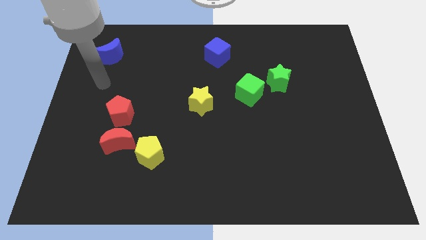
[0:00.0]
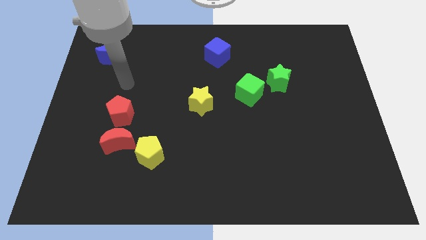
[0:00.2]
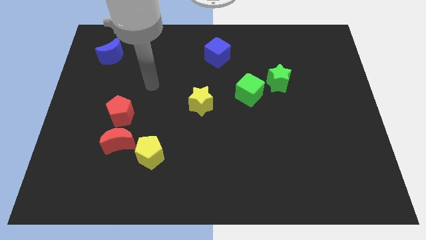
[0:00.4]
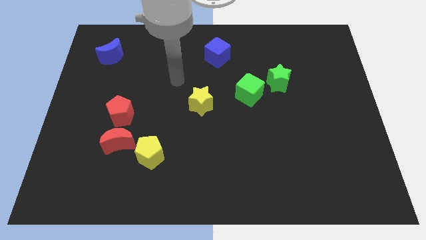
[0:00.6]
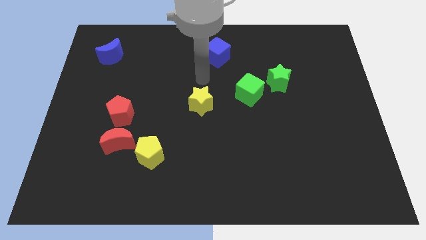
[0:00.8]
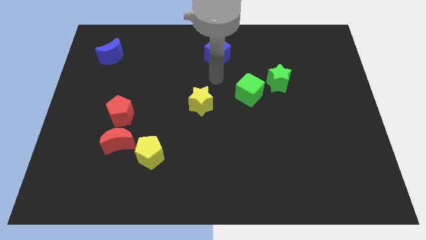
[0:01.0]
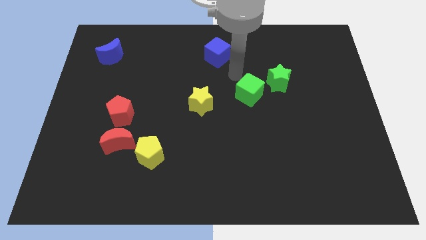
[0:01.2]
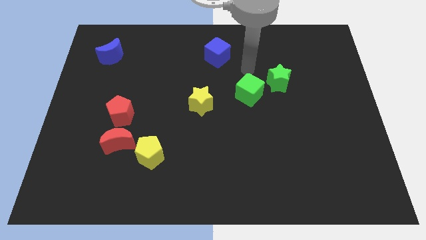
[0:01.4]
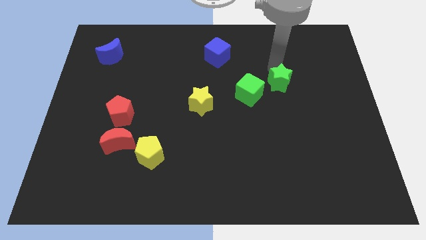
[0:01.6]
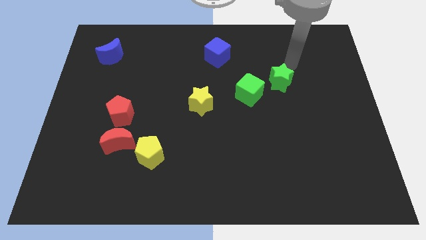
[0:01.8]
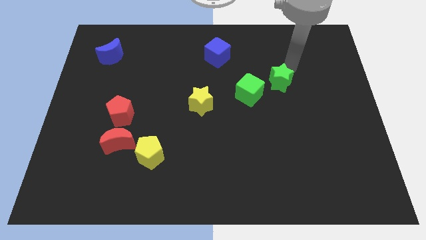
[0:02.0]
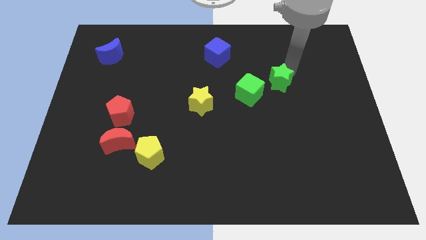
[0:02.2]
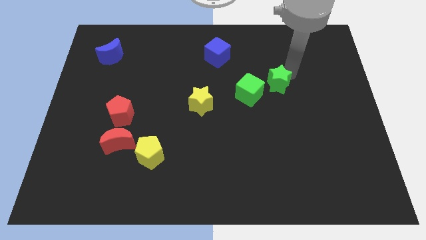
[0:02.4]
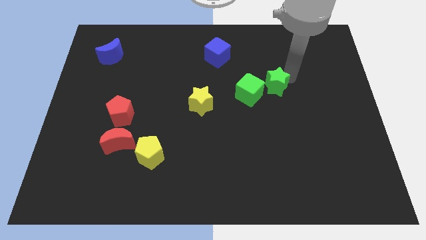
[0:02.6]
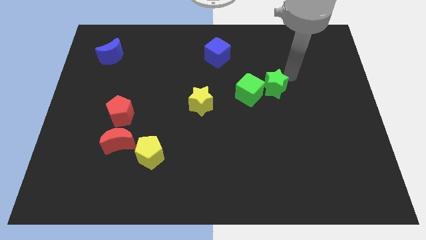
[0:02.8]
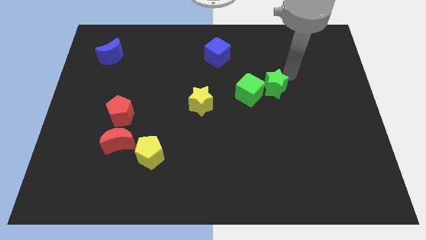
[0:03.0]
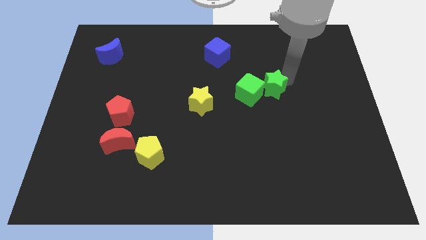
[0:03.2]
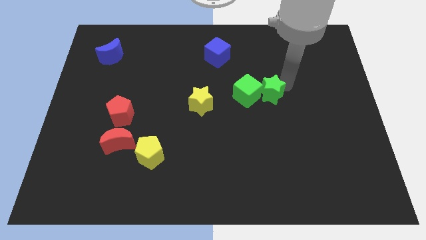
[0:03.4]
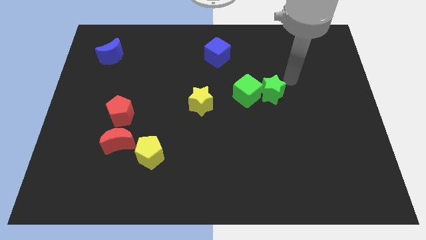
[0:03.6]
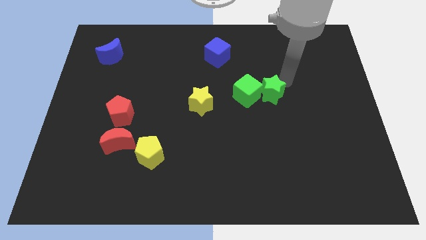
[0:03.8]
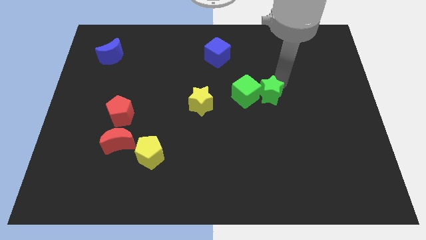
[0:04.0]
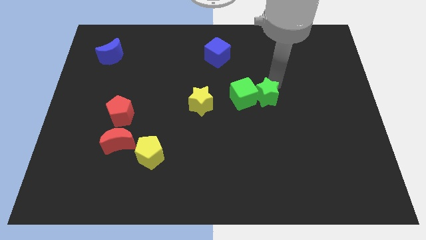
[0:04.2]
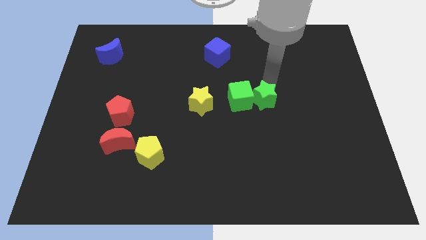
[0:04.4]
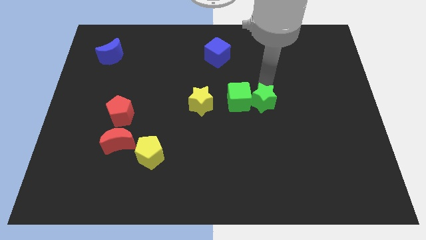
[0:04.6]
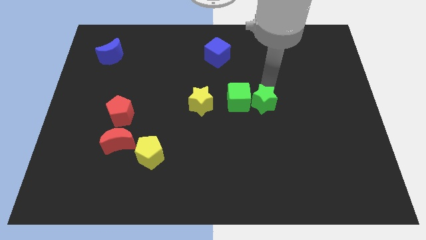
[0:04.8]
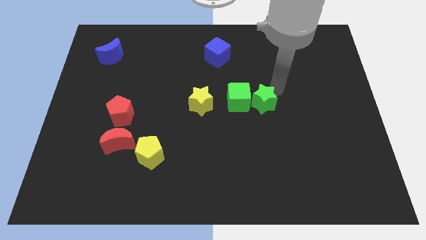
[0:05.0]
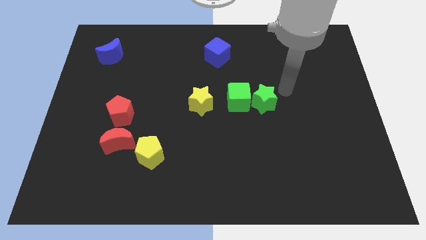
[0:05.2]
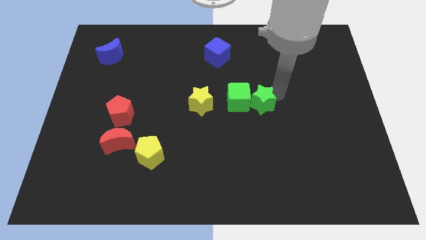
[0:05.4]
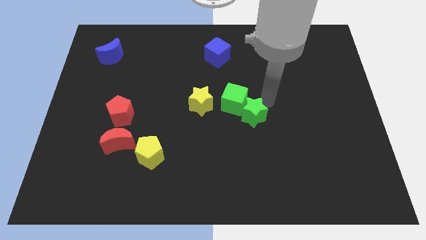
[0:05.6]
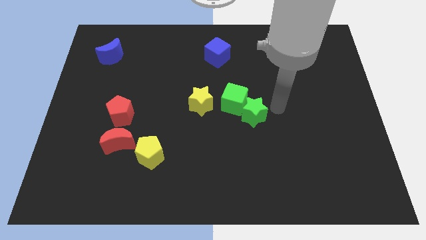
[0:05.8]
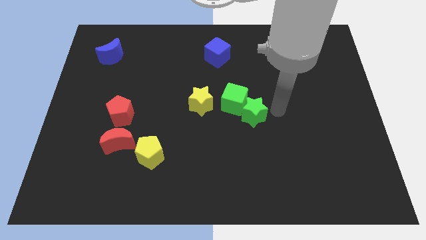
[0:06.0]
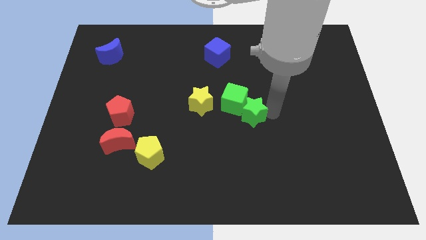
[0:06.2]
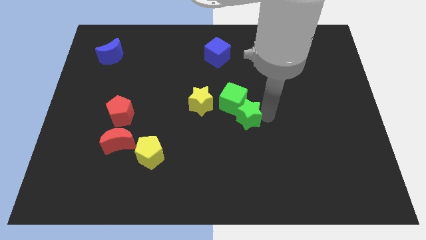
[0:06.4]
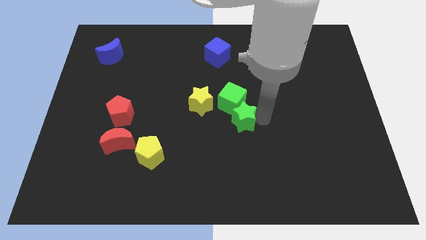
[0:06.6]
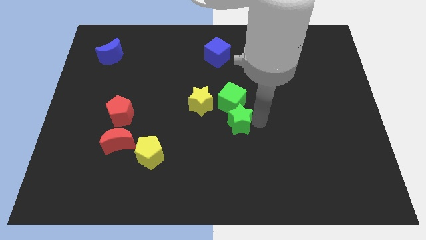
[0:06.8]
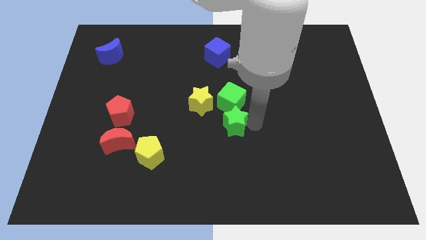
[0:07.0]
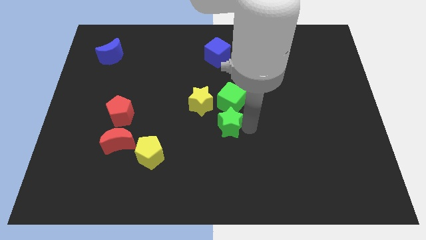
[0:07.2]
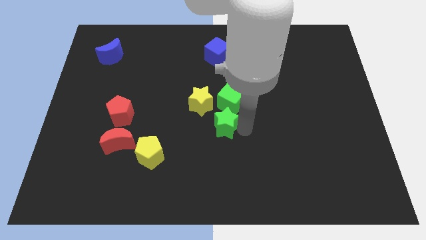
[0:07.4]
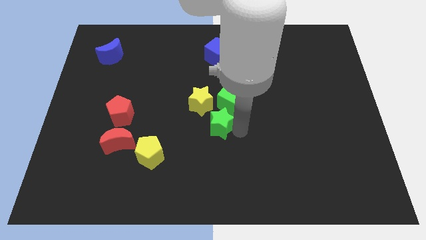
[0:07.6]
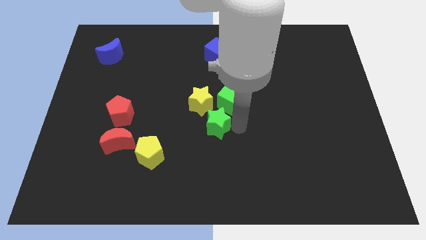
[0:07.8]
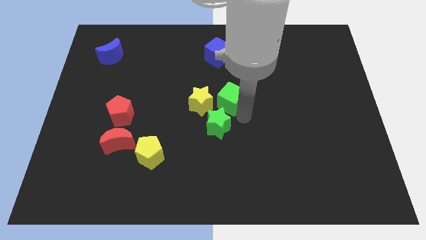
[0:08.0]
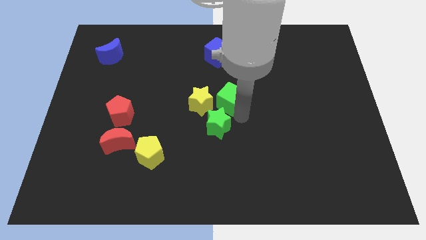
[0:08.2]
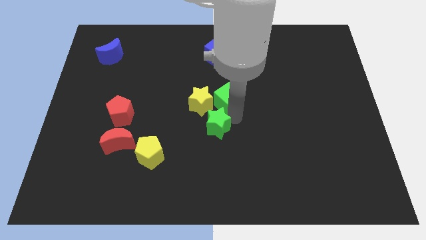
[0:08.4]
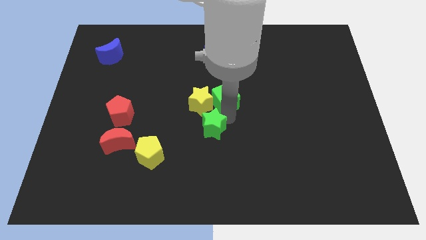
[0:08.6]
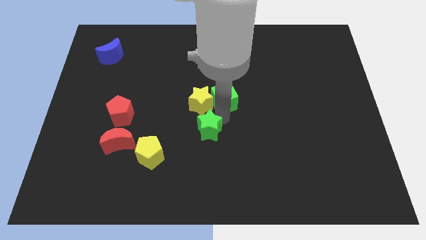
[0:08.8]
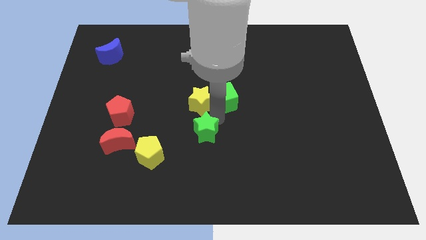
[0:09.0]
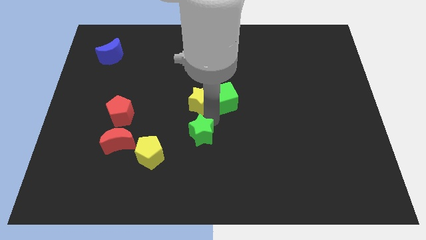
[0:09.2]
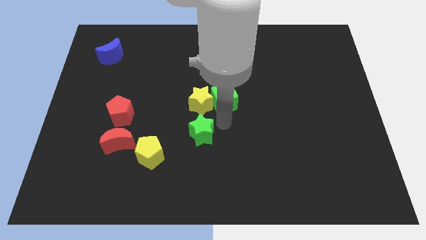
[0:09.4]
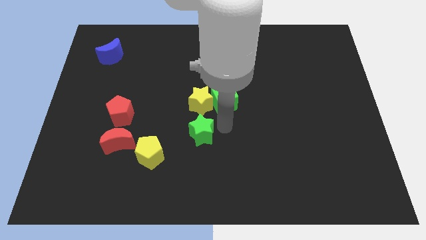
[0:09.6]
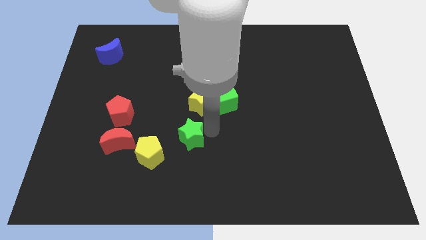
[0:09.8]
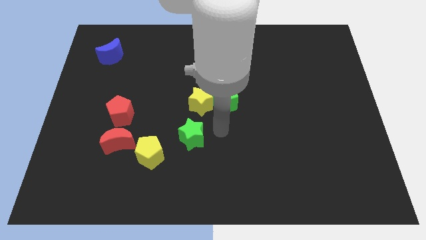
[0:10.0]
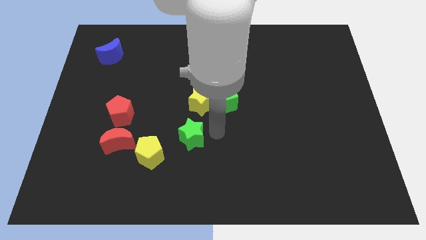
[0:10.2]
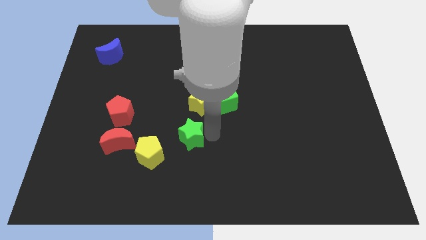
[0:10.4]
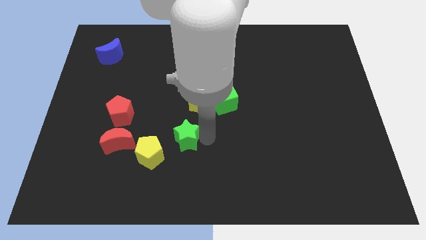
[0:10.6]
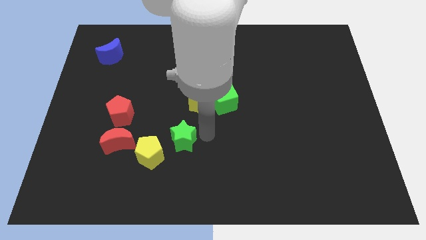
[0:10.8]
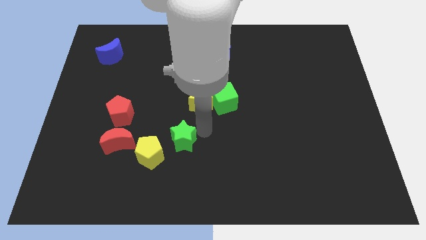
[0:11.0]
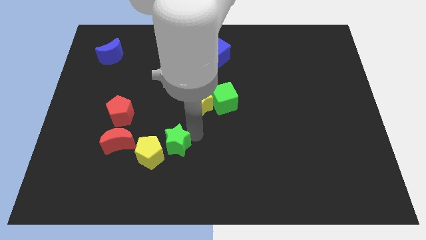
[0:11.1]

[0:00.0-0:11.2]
put the green star to the yellow pentagon

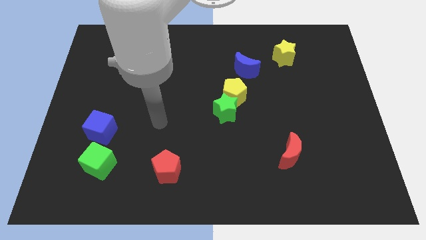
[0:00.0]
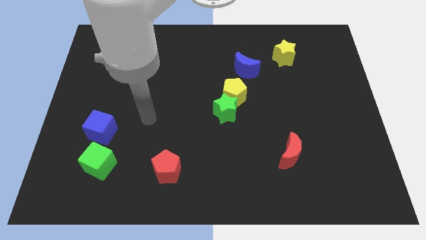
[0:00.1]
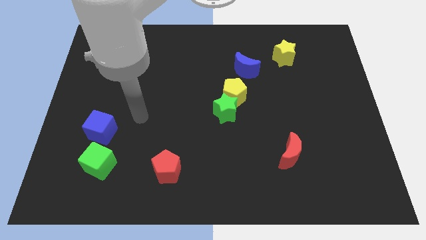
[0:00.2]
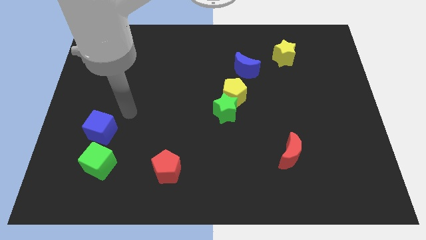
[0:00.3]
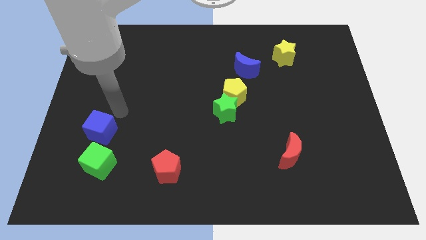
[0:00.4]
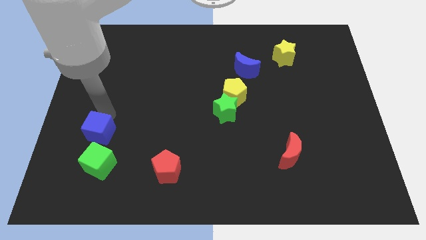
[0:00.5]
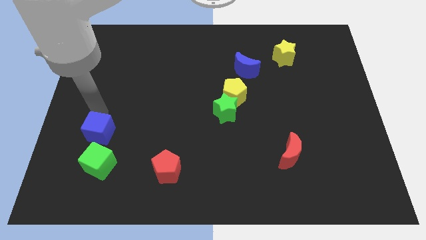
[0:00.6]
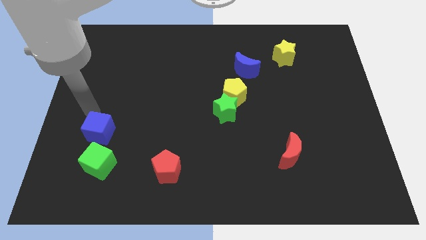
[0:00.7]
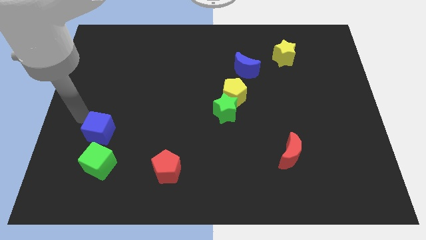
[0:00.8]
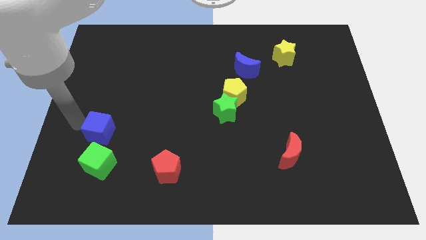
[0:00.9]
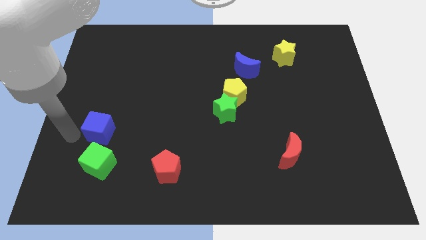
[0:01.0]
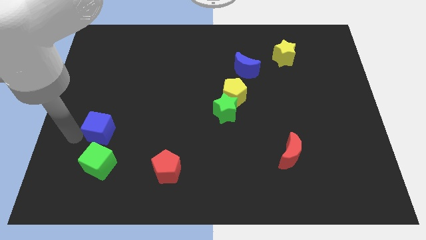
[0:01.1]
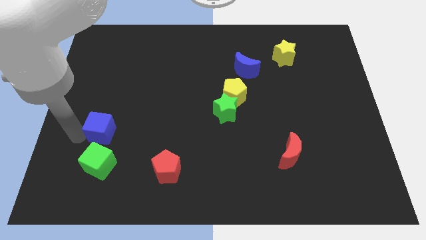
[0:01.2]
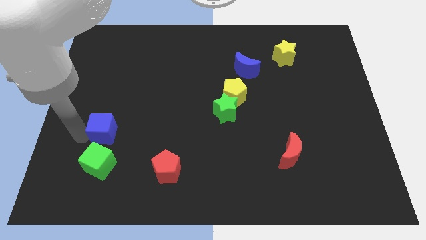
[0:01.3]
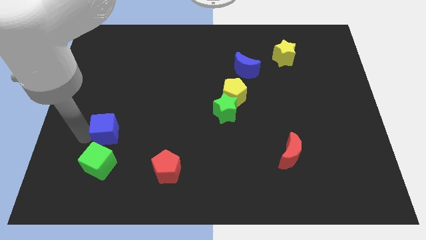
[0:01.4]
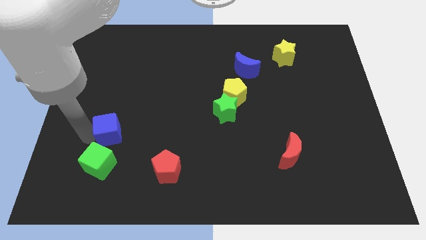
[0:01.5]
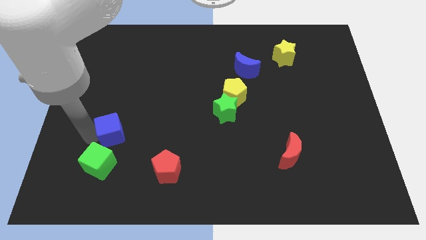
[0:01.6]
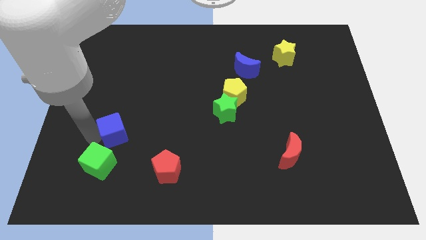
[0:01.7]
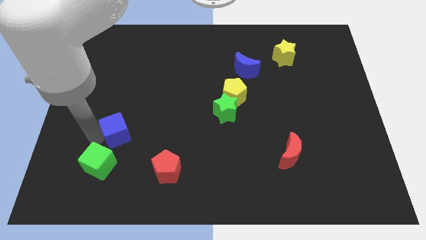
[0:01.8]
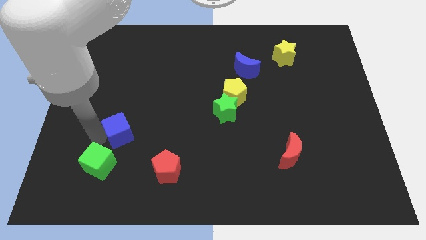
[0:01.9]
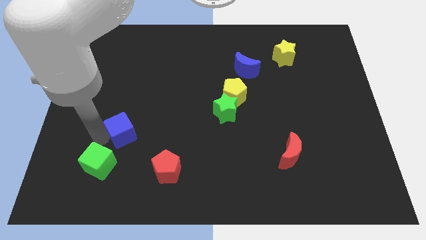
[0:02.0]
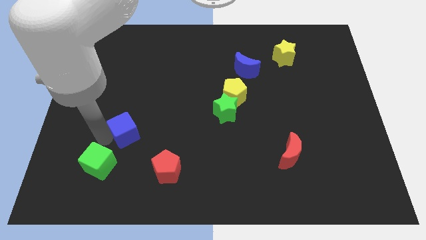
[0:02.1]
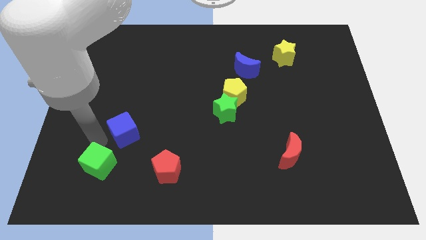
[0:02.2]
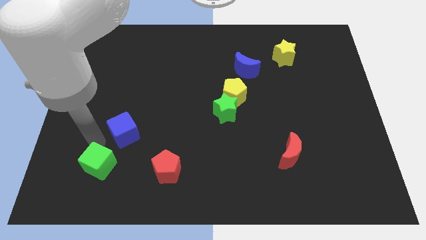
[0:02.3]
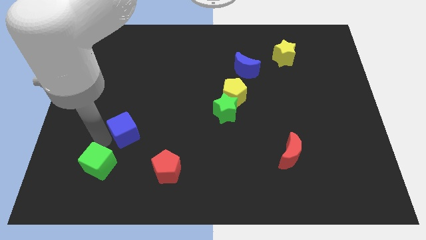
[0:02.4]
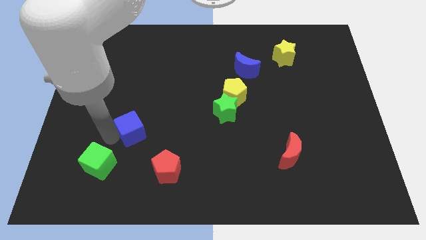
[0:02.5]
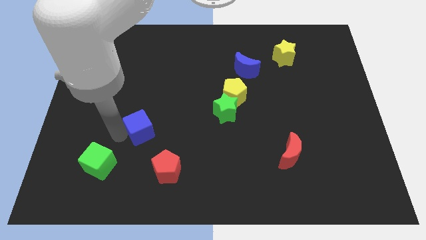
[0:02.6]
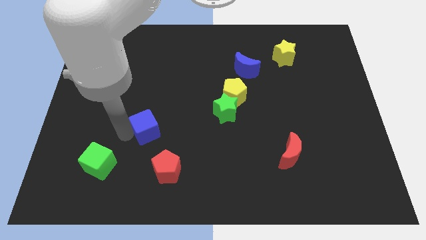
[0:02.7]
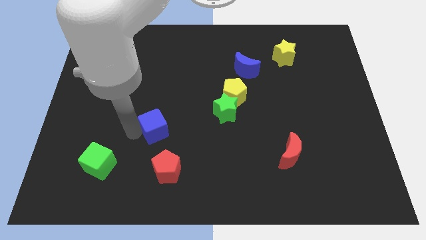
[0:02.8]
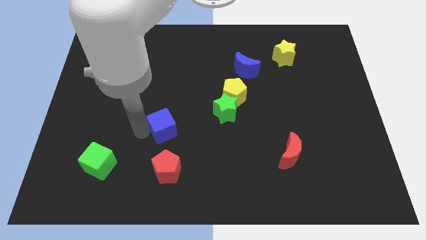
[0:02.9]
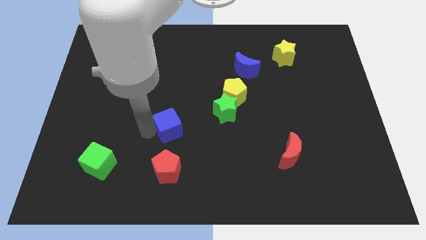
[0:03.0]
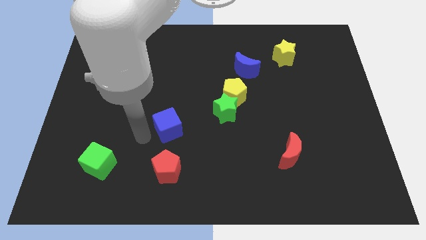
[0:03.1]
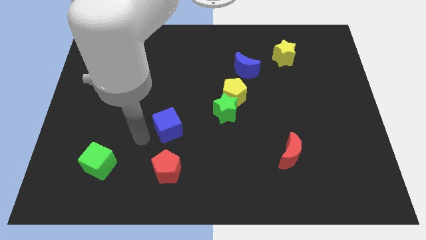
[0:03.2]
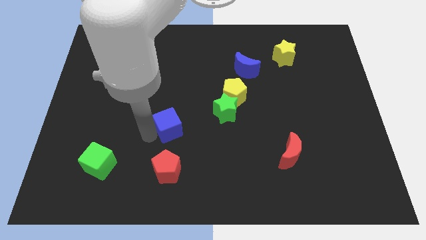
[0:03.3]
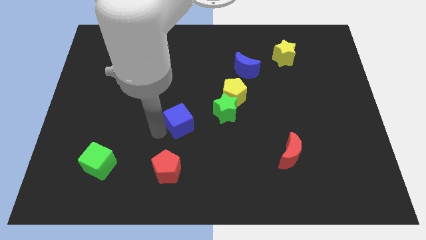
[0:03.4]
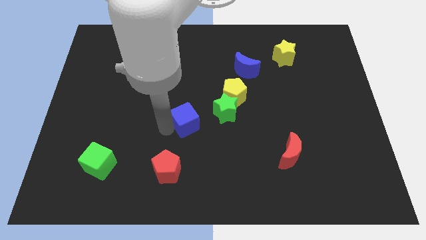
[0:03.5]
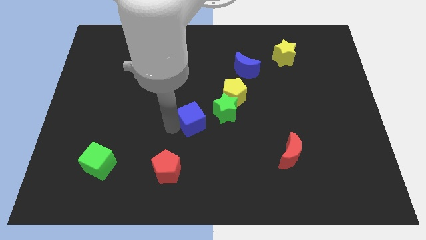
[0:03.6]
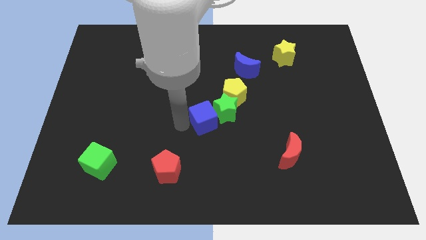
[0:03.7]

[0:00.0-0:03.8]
put the blue cube towards the green star
